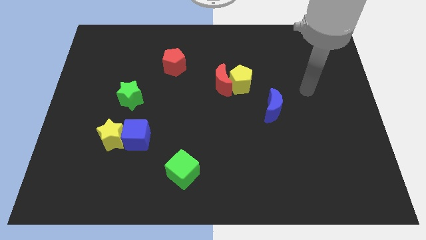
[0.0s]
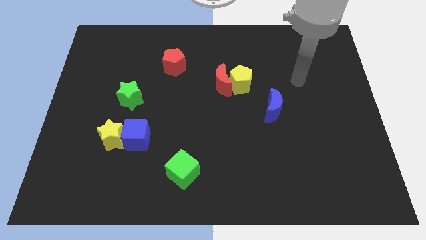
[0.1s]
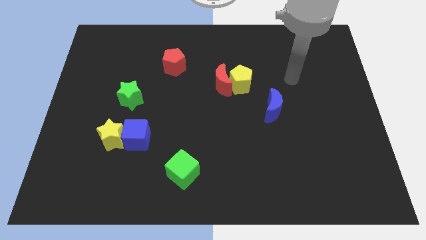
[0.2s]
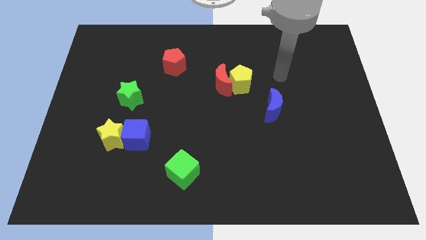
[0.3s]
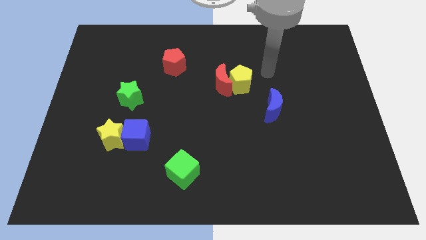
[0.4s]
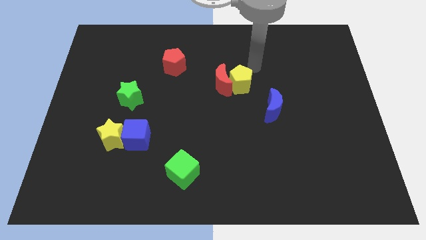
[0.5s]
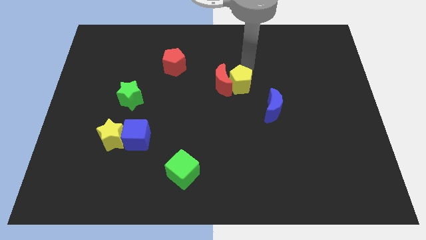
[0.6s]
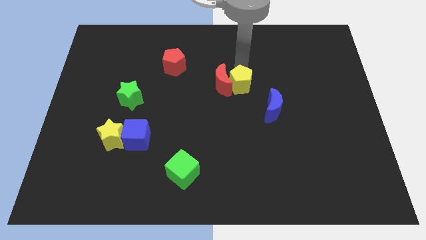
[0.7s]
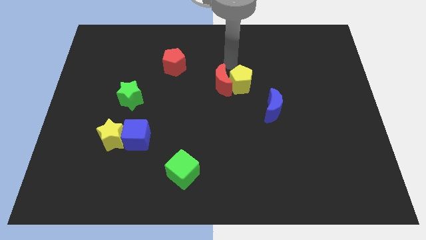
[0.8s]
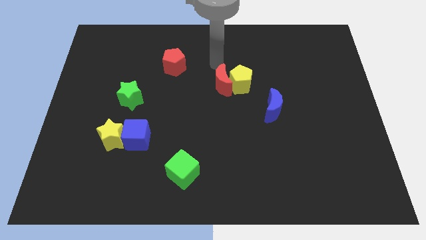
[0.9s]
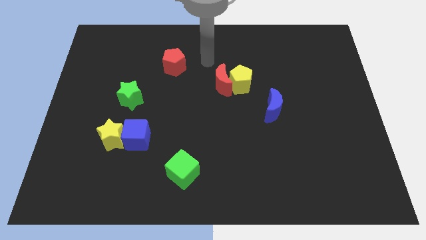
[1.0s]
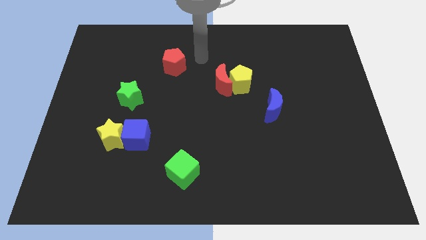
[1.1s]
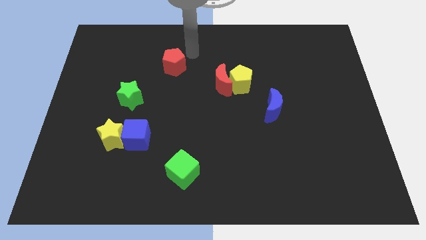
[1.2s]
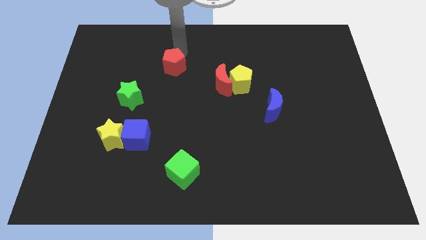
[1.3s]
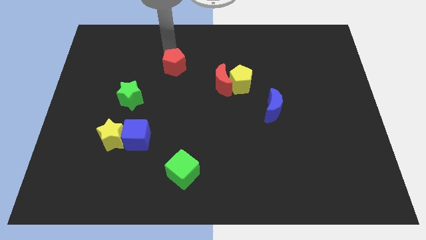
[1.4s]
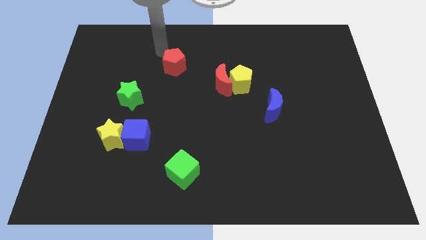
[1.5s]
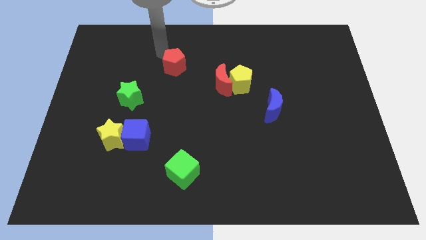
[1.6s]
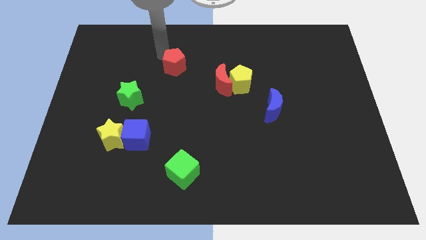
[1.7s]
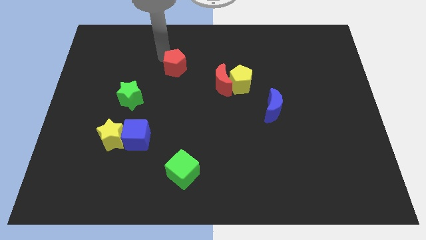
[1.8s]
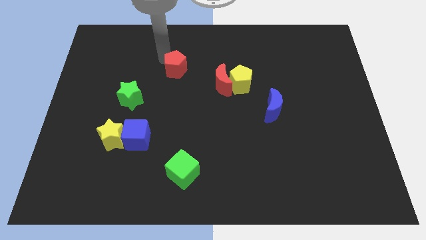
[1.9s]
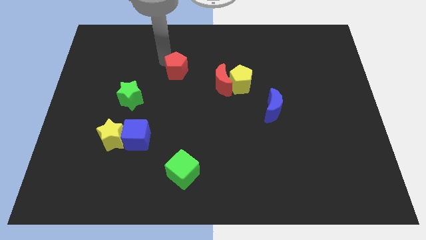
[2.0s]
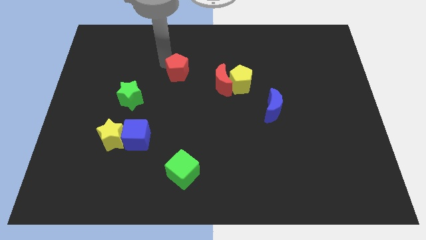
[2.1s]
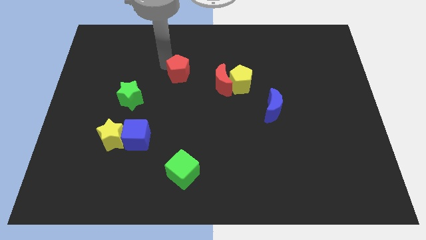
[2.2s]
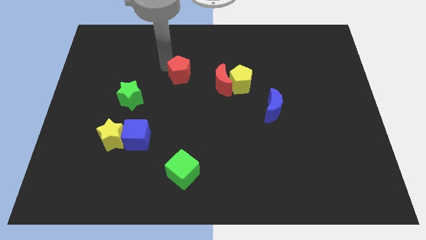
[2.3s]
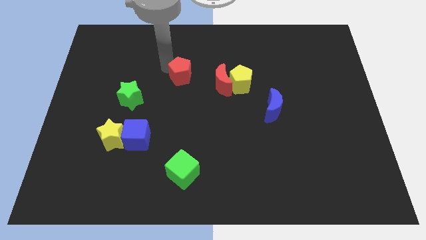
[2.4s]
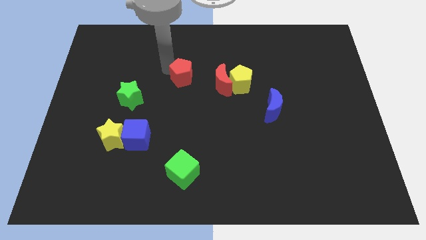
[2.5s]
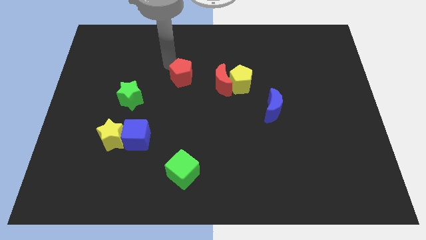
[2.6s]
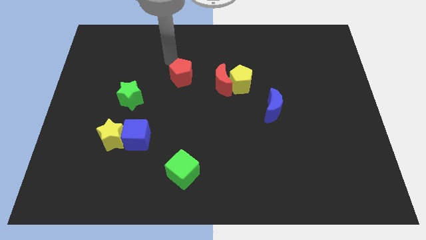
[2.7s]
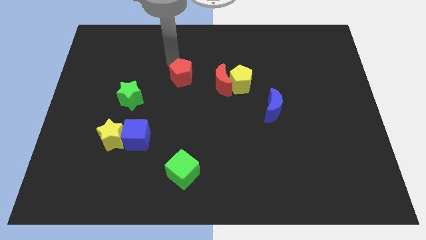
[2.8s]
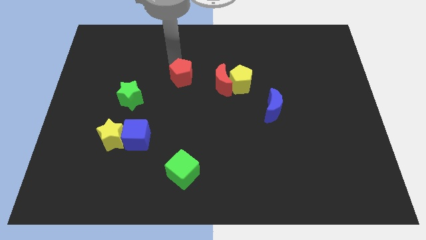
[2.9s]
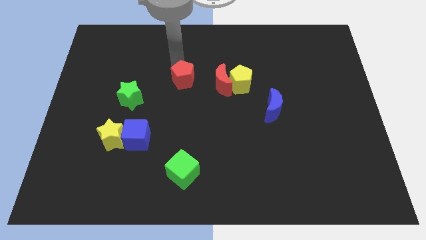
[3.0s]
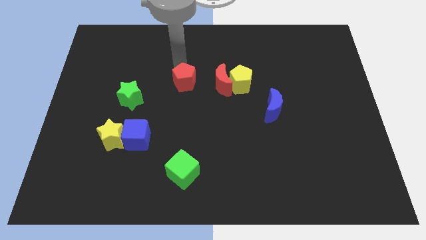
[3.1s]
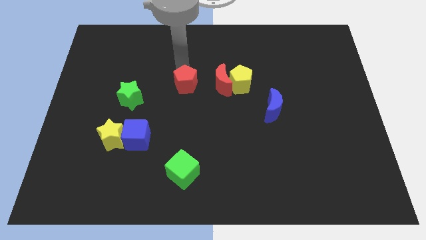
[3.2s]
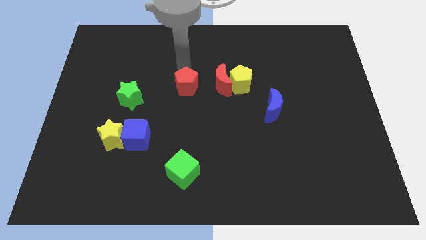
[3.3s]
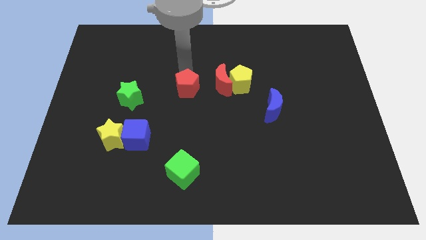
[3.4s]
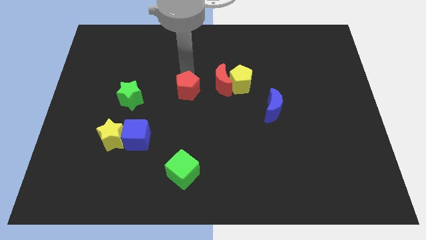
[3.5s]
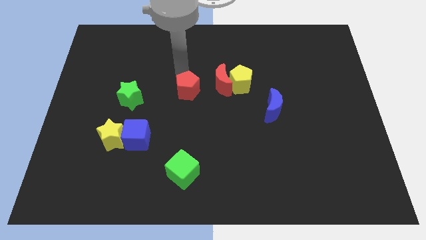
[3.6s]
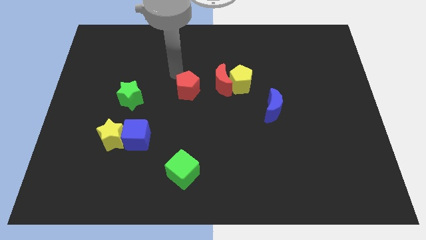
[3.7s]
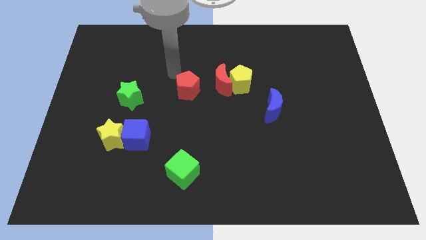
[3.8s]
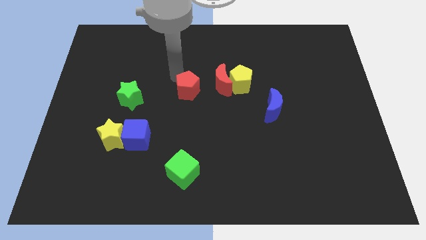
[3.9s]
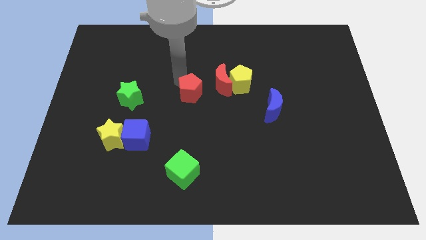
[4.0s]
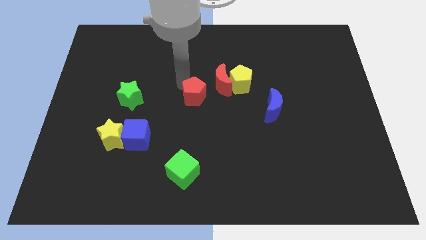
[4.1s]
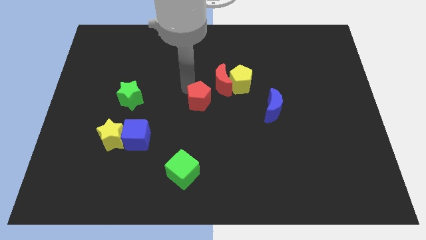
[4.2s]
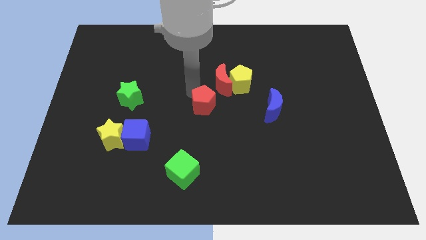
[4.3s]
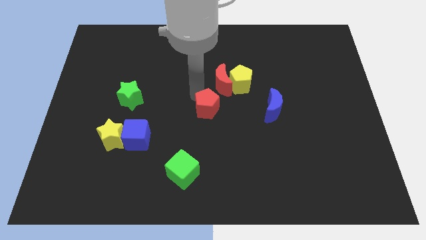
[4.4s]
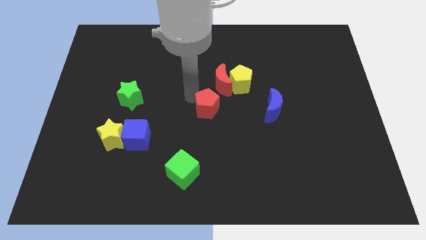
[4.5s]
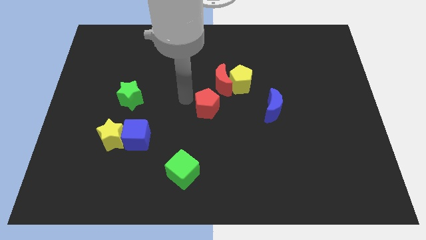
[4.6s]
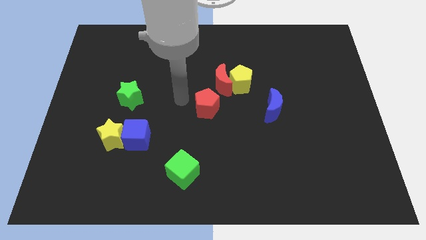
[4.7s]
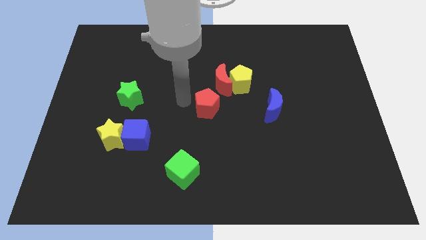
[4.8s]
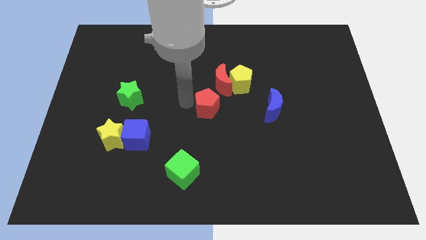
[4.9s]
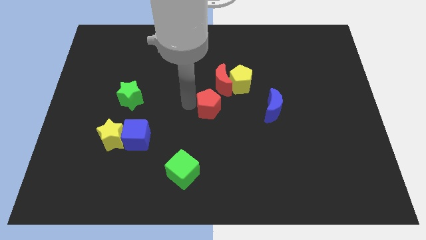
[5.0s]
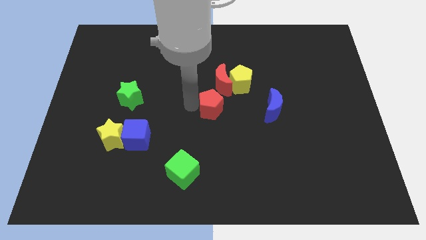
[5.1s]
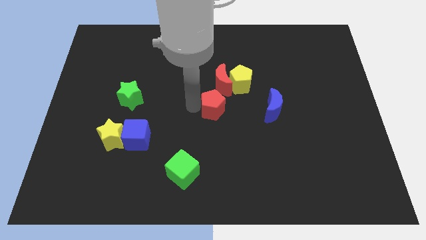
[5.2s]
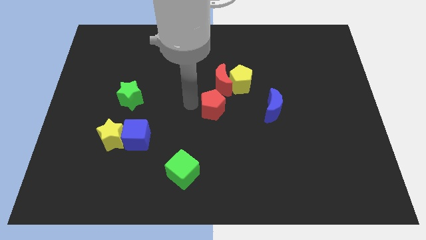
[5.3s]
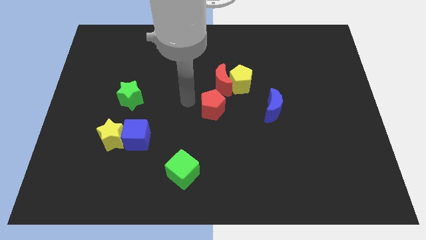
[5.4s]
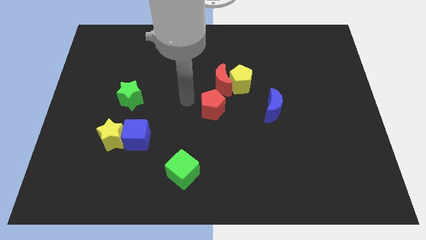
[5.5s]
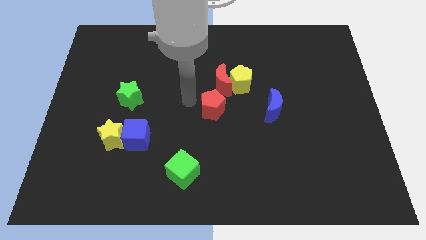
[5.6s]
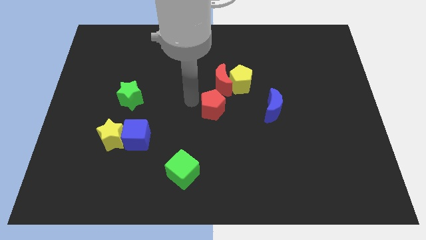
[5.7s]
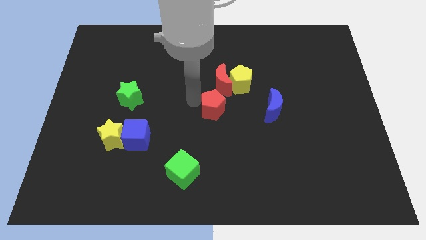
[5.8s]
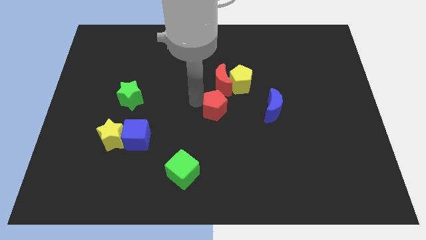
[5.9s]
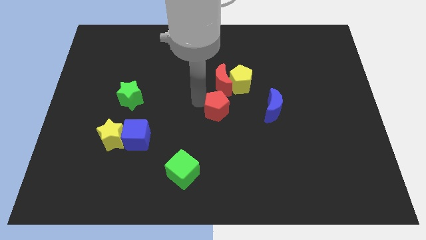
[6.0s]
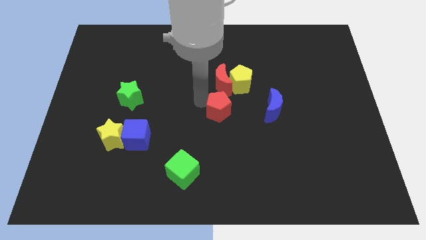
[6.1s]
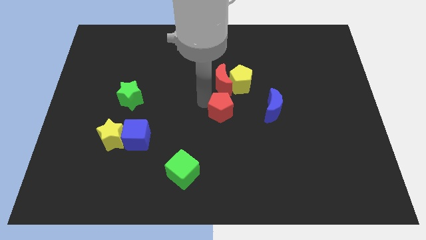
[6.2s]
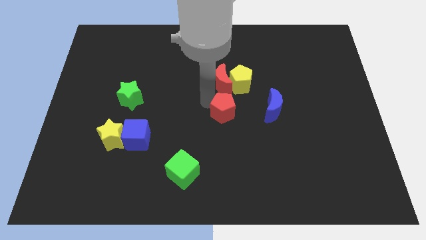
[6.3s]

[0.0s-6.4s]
slide the red pentagon below the yellow pentagon

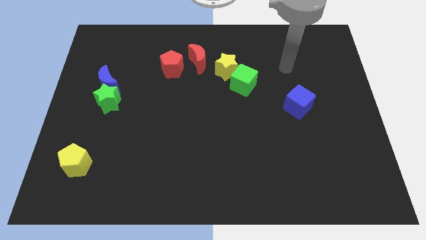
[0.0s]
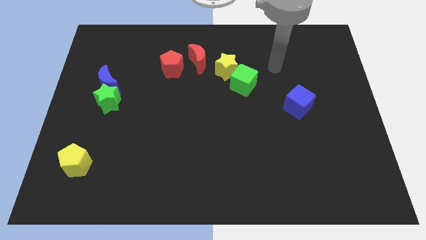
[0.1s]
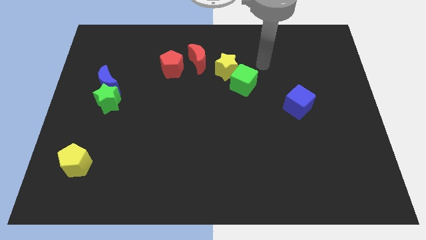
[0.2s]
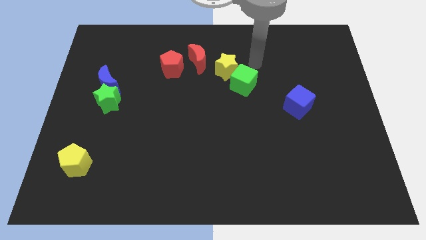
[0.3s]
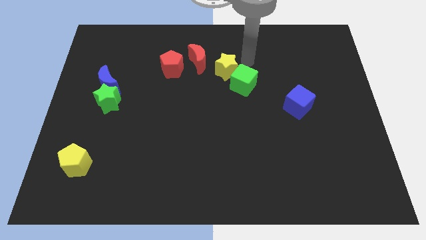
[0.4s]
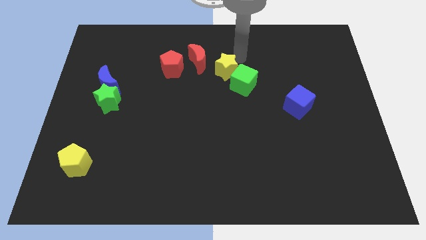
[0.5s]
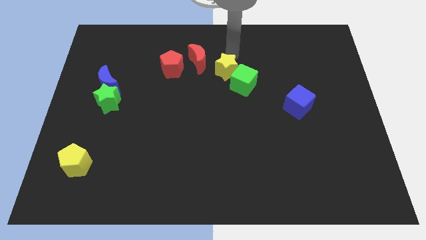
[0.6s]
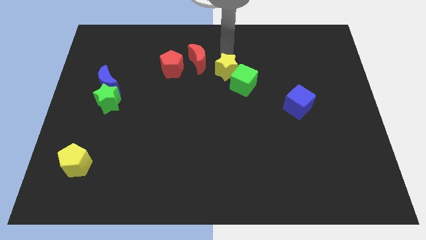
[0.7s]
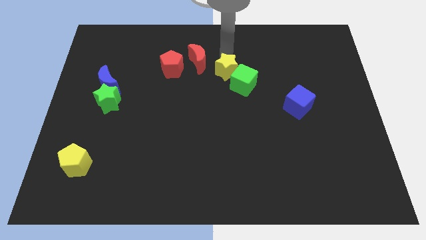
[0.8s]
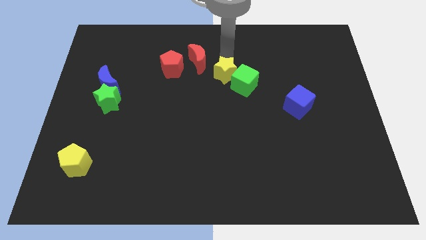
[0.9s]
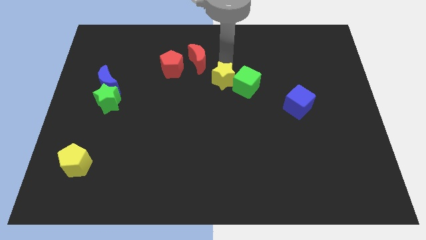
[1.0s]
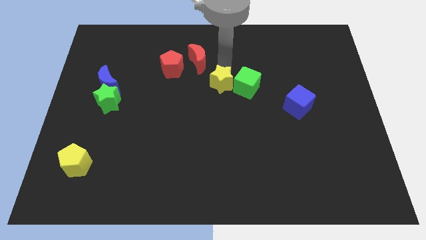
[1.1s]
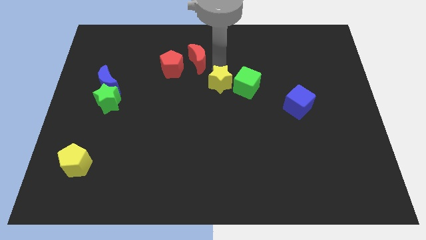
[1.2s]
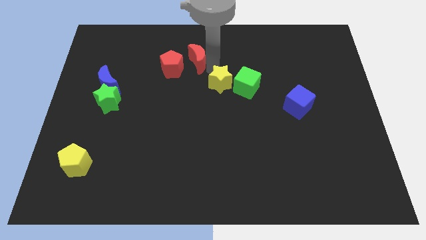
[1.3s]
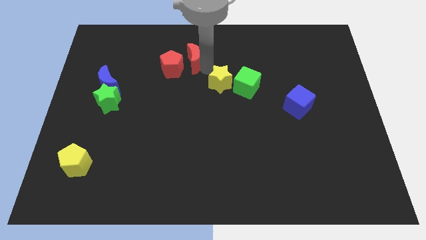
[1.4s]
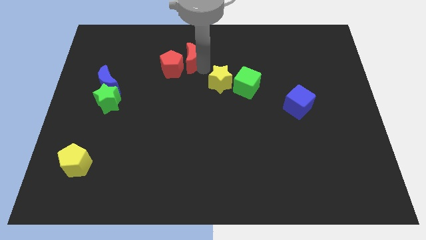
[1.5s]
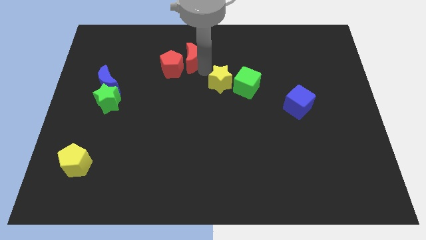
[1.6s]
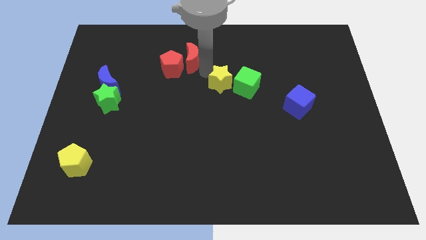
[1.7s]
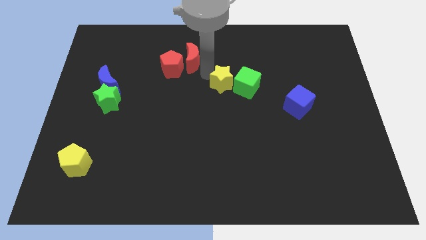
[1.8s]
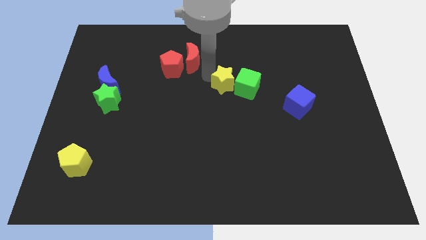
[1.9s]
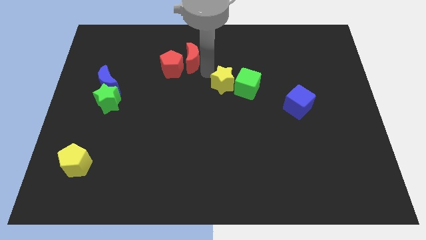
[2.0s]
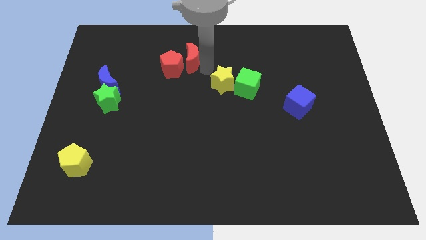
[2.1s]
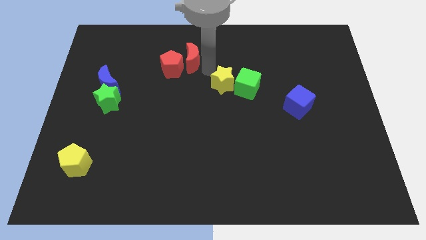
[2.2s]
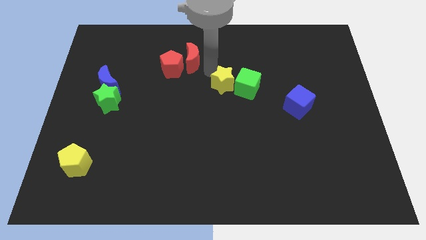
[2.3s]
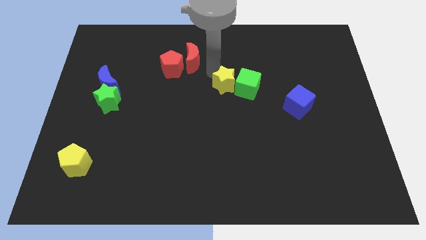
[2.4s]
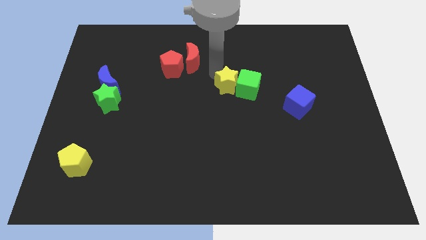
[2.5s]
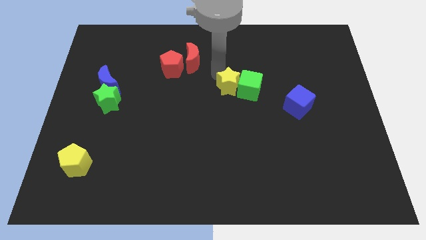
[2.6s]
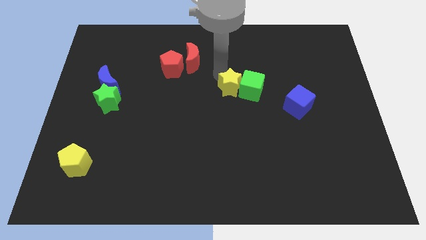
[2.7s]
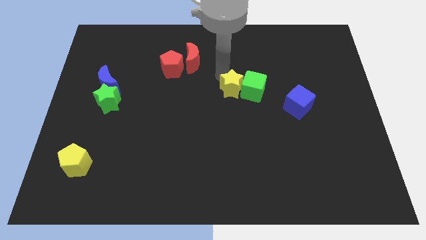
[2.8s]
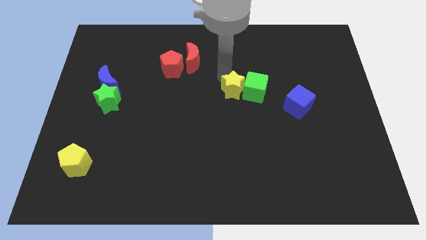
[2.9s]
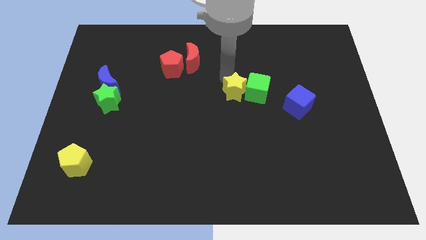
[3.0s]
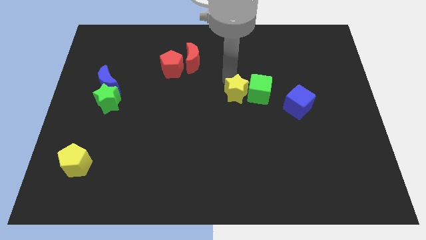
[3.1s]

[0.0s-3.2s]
move the yellow star to the left side of the blue cube
